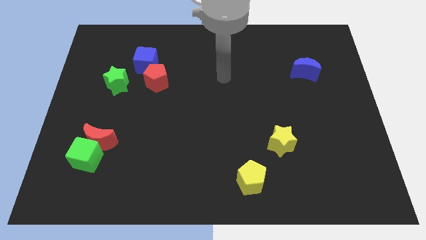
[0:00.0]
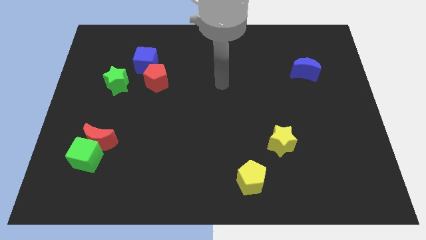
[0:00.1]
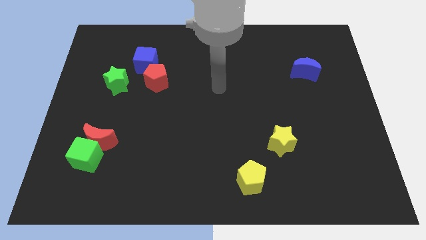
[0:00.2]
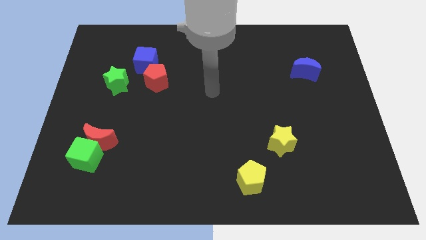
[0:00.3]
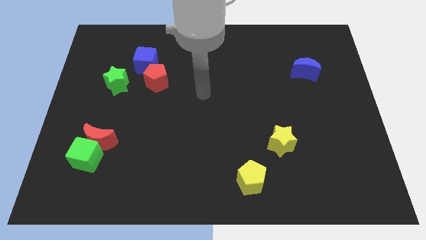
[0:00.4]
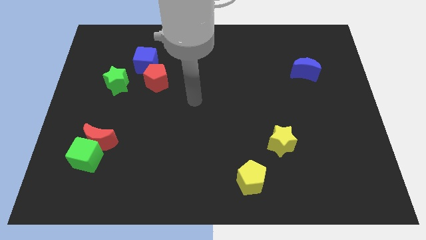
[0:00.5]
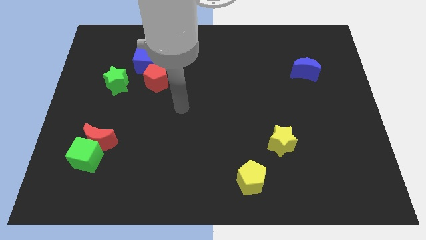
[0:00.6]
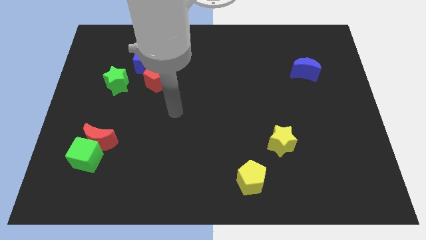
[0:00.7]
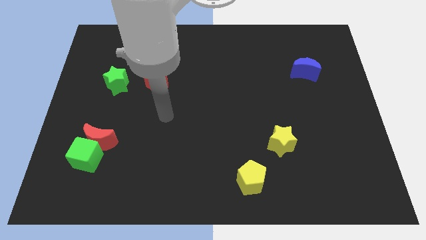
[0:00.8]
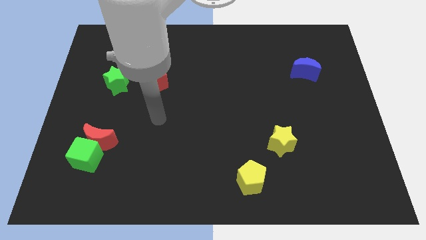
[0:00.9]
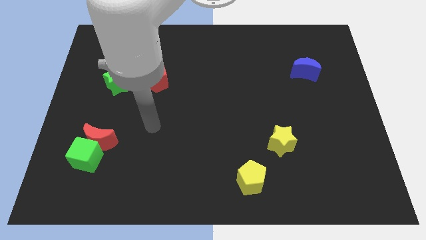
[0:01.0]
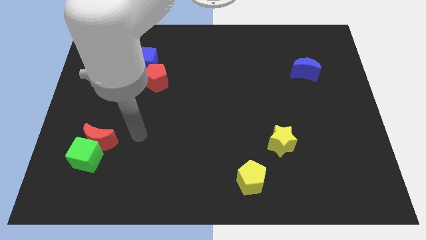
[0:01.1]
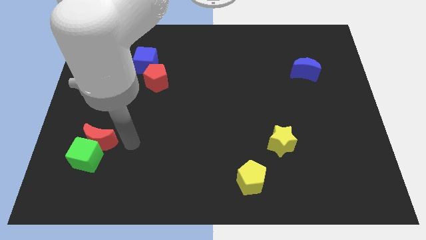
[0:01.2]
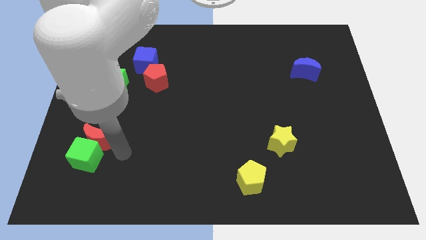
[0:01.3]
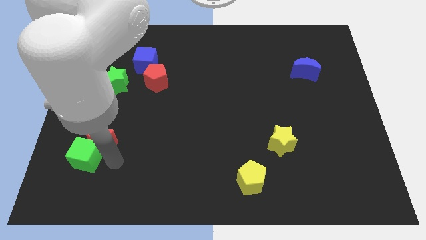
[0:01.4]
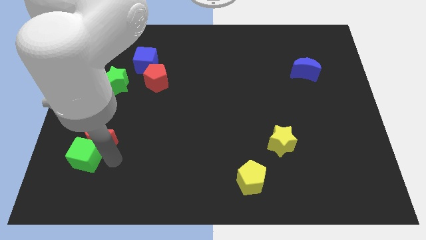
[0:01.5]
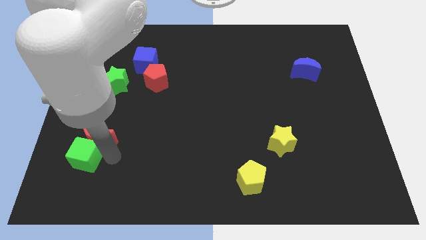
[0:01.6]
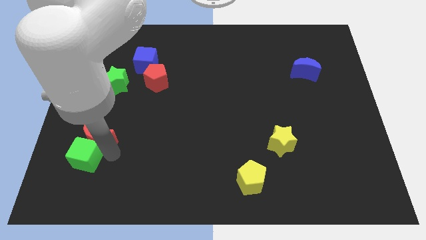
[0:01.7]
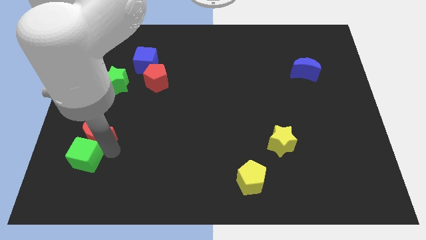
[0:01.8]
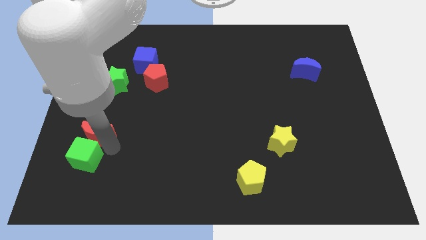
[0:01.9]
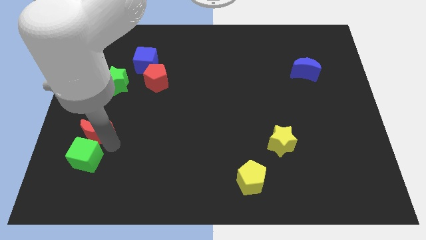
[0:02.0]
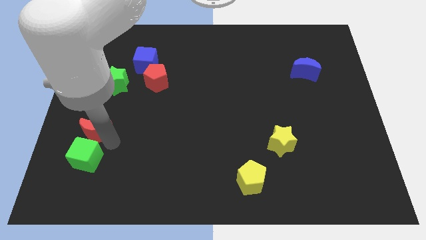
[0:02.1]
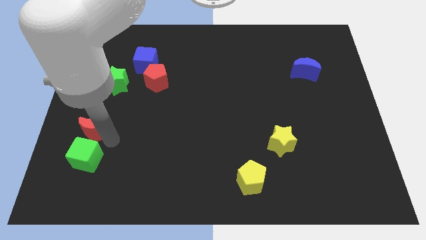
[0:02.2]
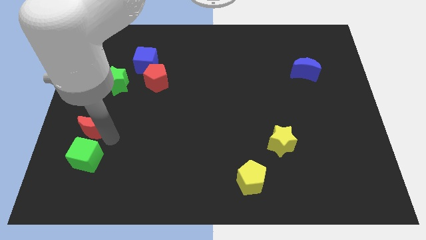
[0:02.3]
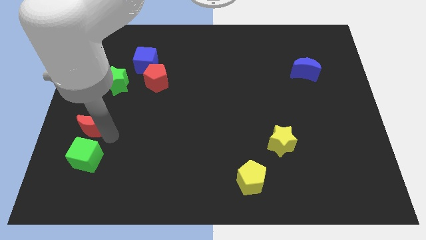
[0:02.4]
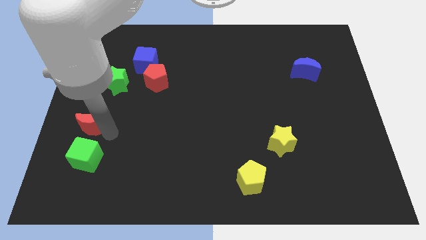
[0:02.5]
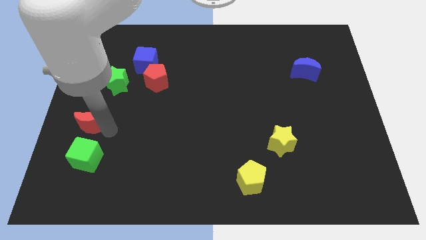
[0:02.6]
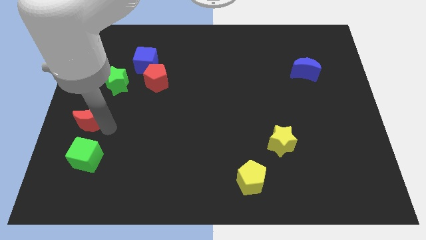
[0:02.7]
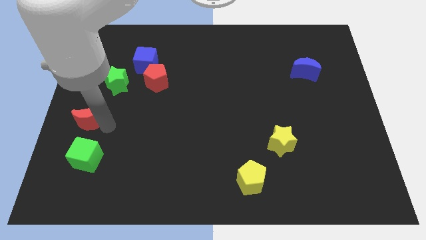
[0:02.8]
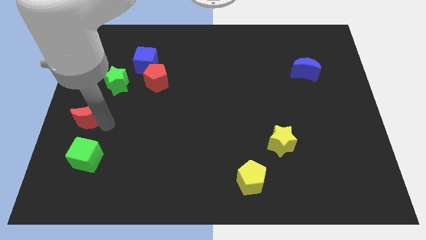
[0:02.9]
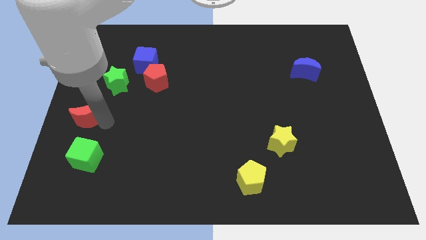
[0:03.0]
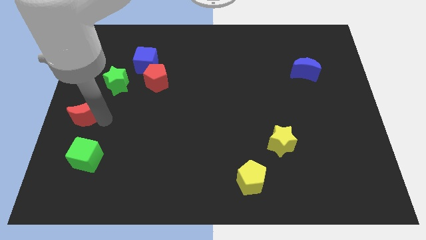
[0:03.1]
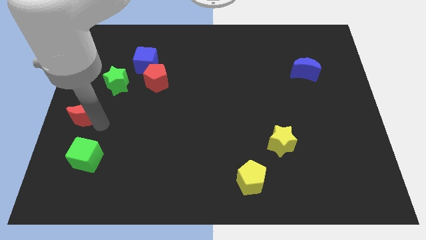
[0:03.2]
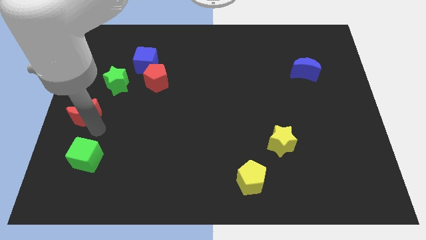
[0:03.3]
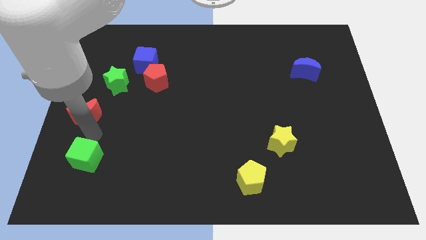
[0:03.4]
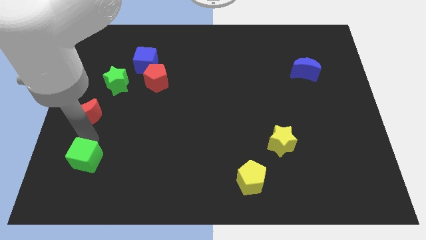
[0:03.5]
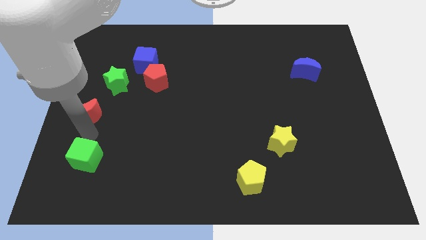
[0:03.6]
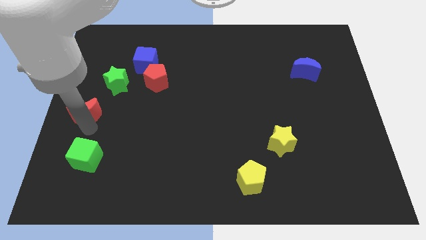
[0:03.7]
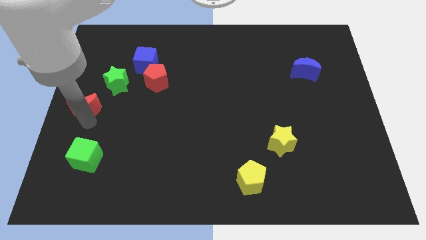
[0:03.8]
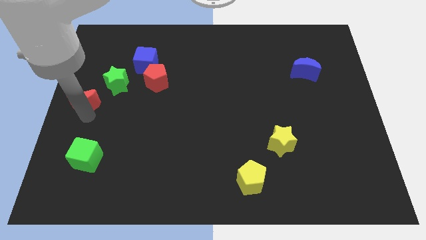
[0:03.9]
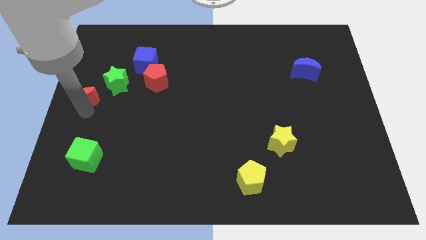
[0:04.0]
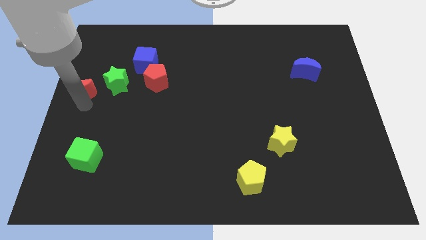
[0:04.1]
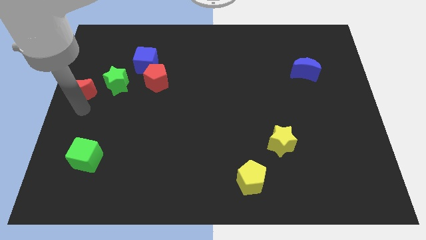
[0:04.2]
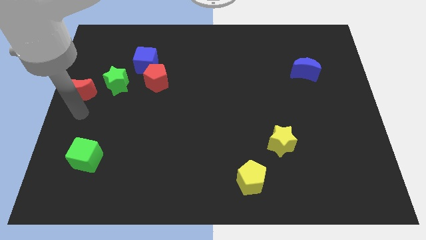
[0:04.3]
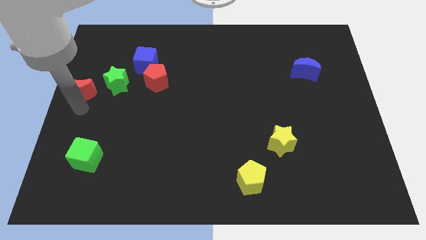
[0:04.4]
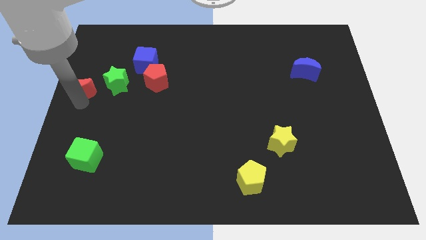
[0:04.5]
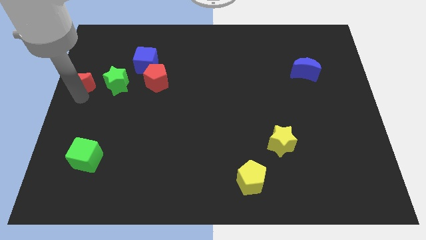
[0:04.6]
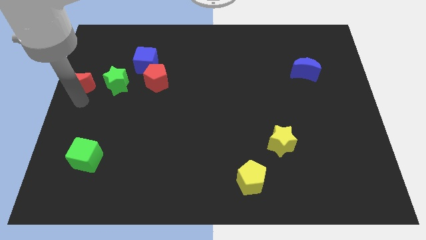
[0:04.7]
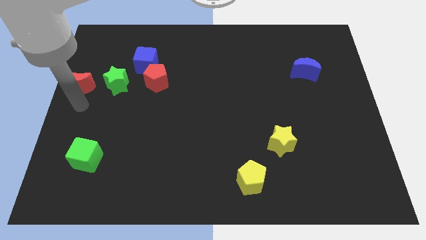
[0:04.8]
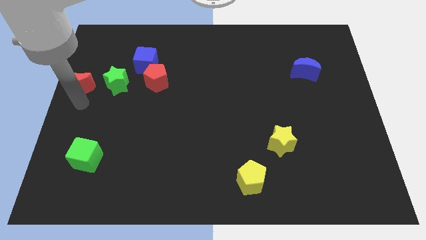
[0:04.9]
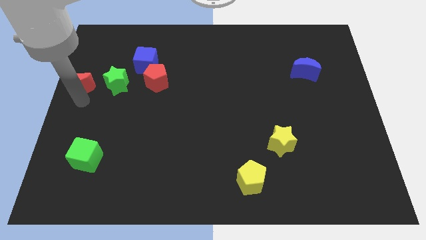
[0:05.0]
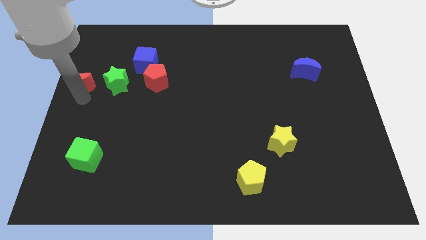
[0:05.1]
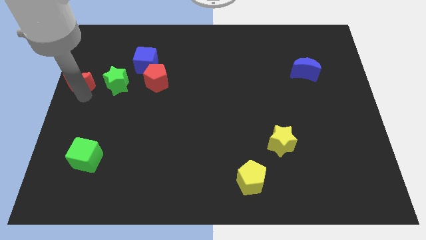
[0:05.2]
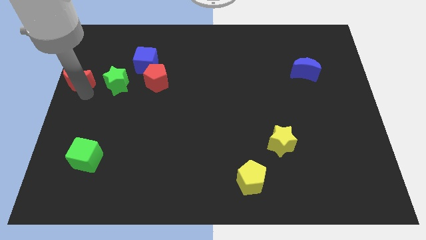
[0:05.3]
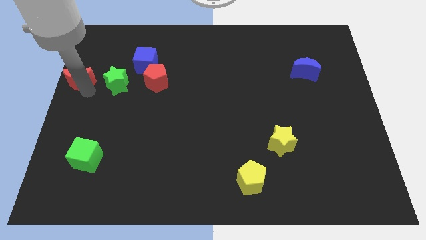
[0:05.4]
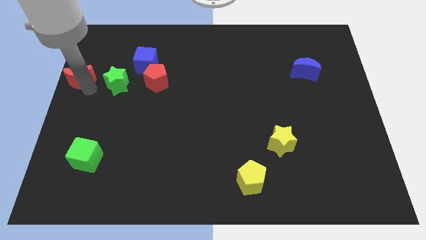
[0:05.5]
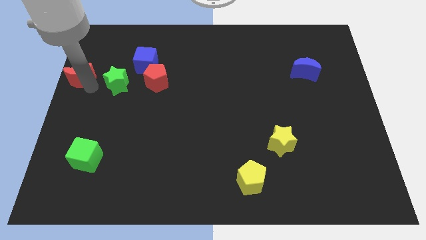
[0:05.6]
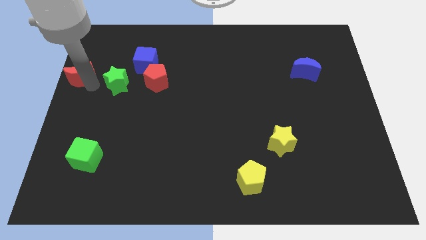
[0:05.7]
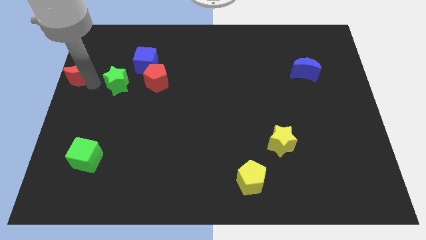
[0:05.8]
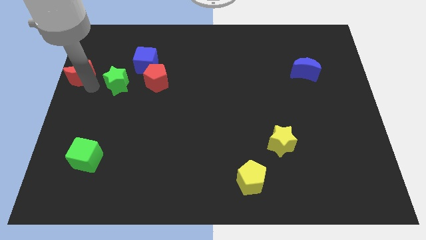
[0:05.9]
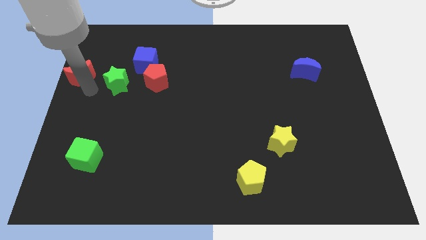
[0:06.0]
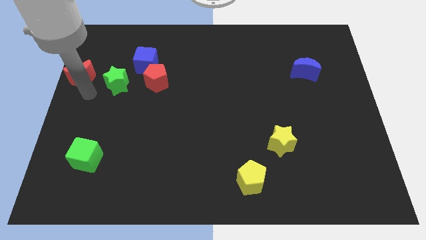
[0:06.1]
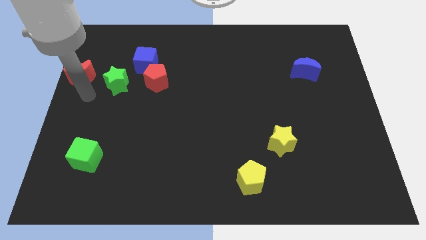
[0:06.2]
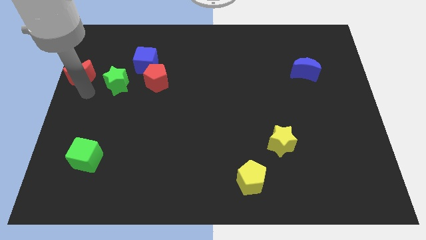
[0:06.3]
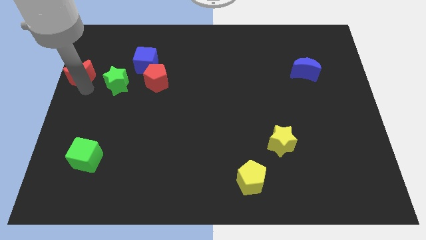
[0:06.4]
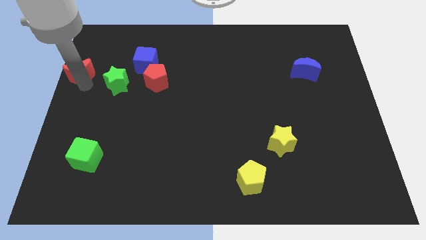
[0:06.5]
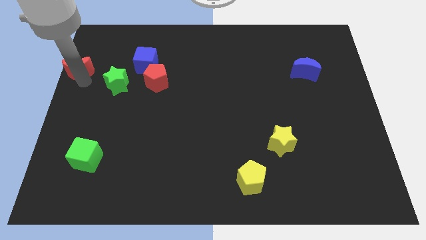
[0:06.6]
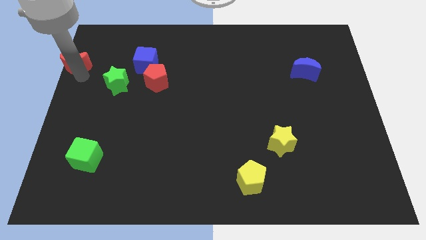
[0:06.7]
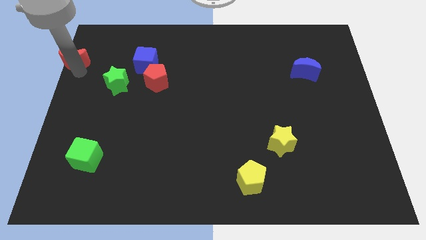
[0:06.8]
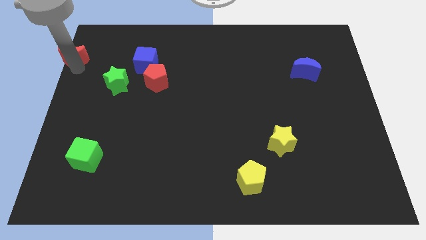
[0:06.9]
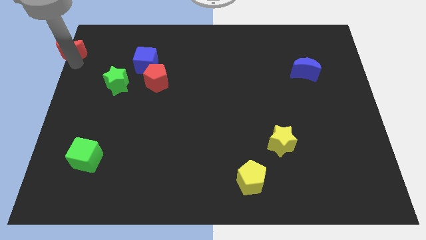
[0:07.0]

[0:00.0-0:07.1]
slide the red moon to the top left corner
